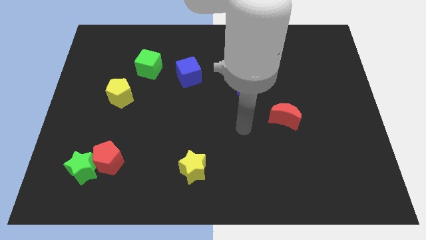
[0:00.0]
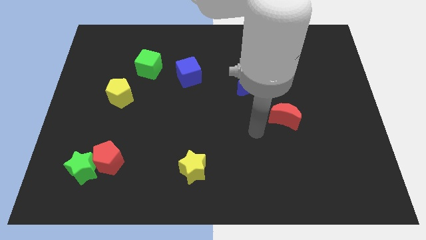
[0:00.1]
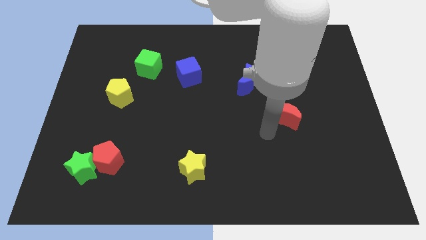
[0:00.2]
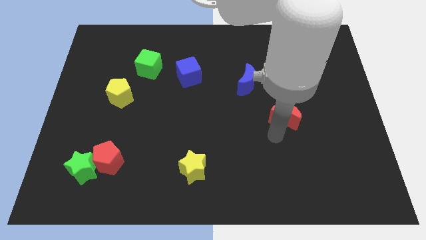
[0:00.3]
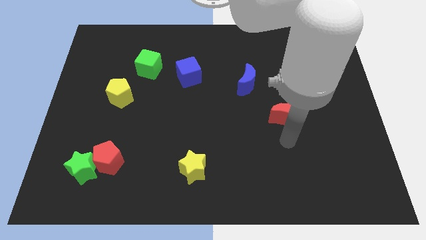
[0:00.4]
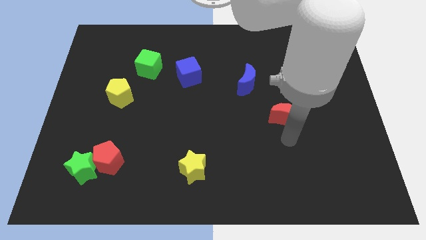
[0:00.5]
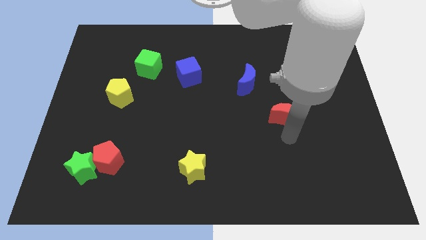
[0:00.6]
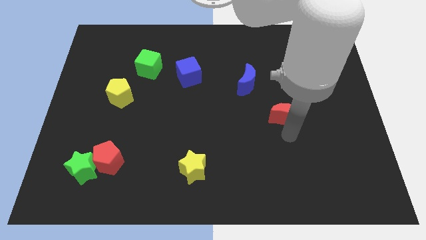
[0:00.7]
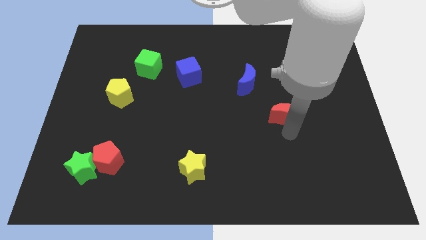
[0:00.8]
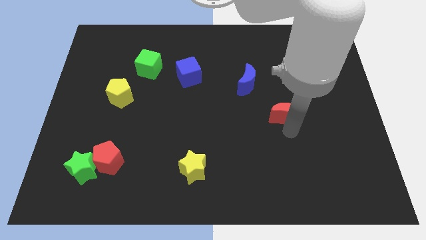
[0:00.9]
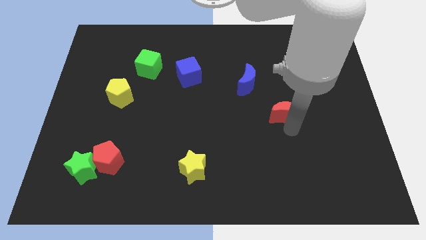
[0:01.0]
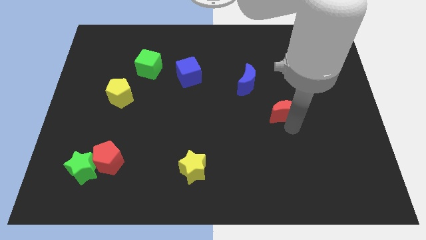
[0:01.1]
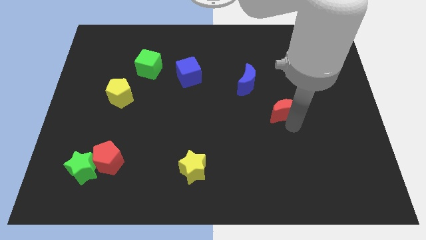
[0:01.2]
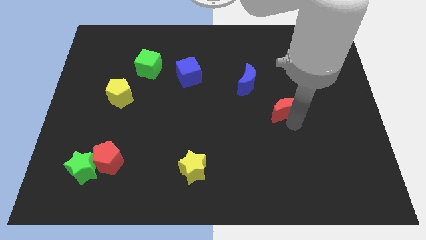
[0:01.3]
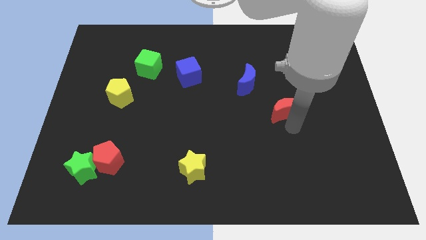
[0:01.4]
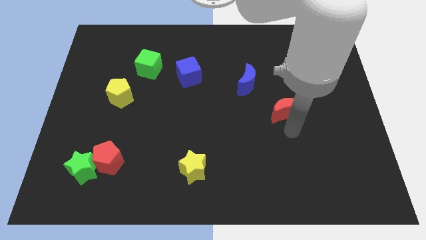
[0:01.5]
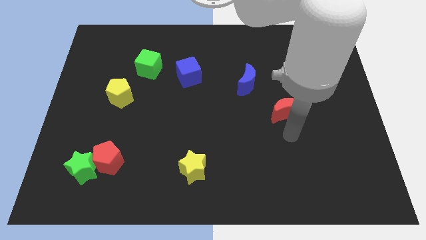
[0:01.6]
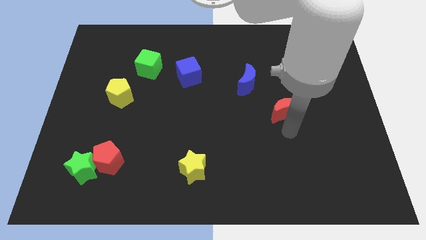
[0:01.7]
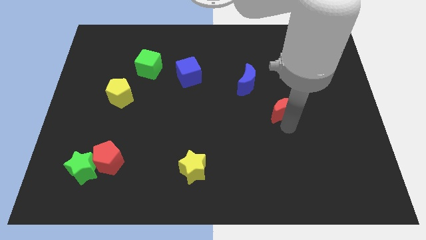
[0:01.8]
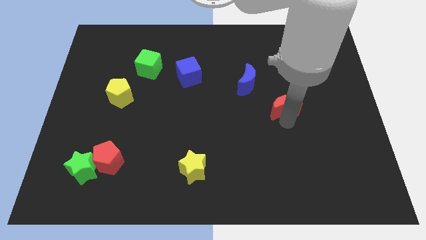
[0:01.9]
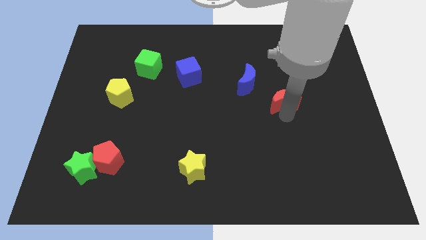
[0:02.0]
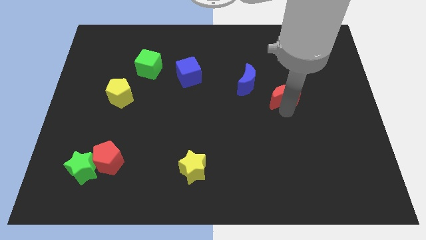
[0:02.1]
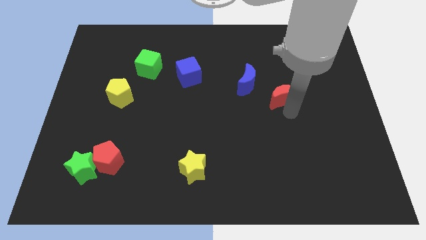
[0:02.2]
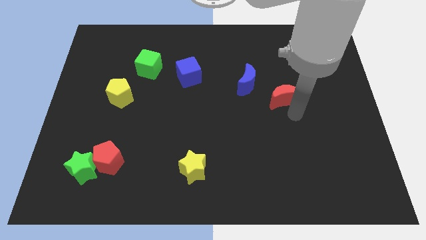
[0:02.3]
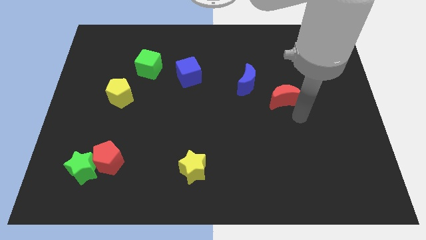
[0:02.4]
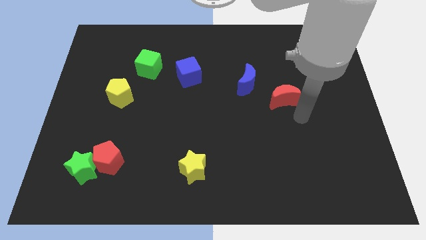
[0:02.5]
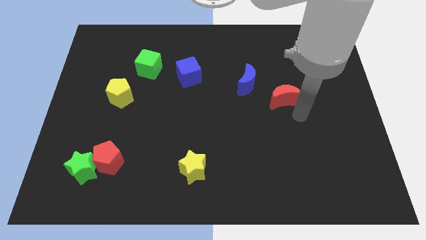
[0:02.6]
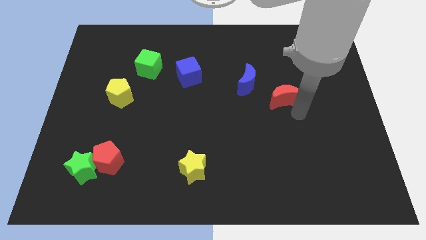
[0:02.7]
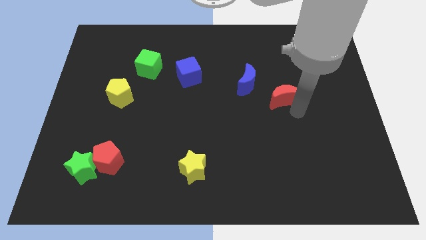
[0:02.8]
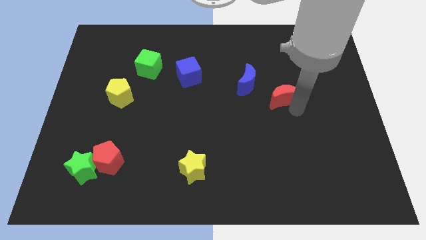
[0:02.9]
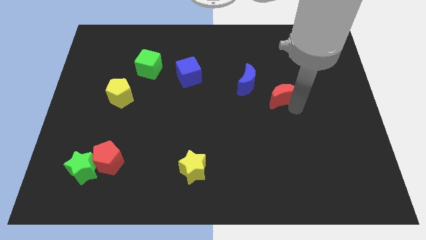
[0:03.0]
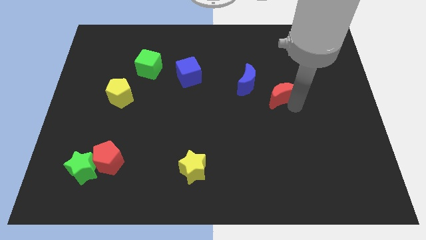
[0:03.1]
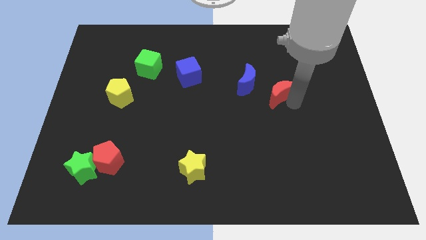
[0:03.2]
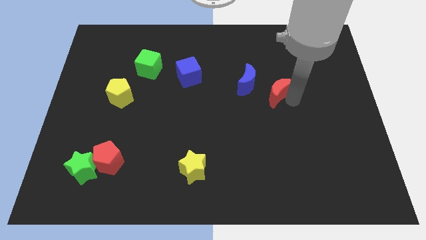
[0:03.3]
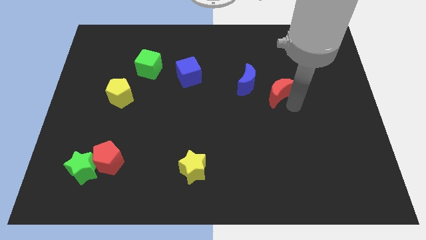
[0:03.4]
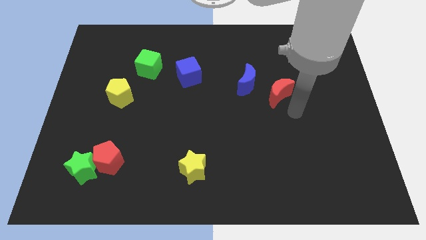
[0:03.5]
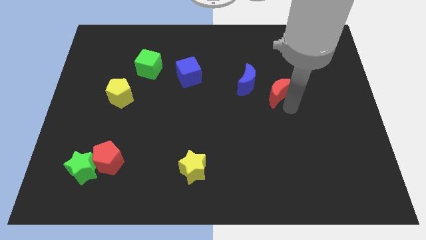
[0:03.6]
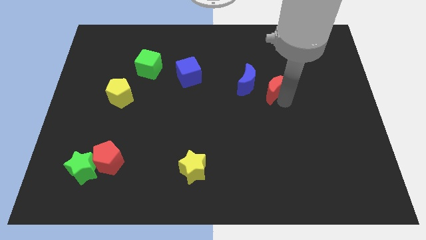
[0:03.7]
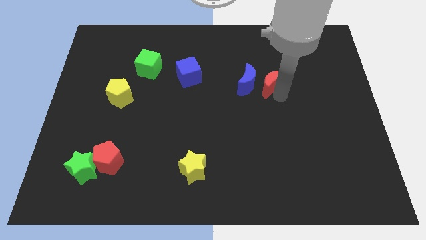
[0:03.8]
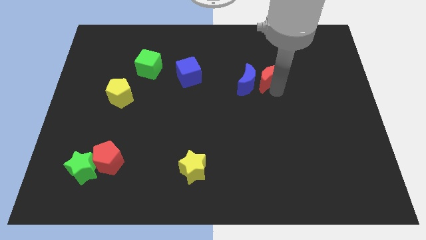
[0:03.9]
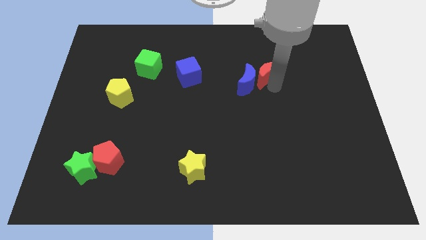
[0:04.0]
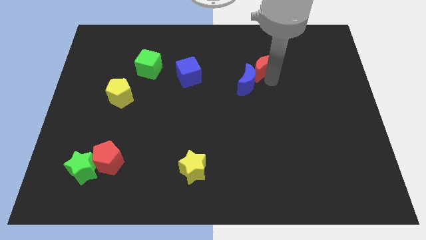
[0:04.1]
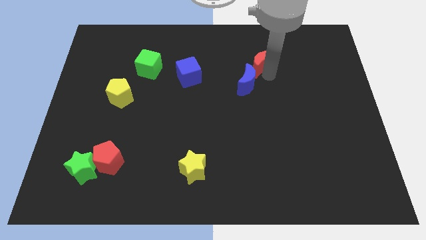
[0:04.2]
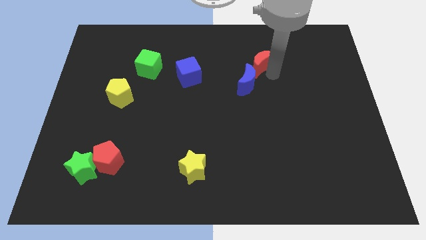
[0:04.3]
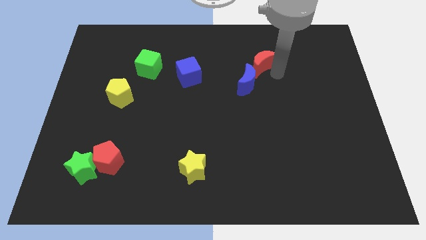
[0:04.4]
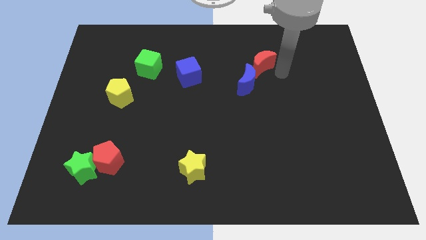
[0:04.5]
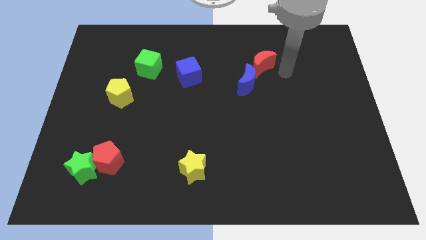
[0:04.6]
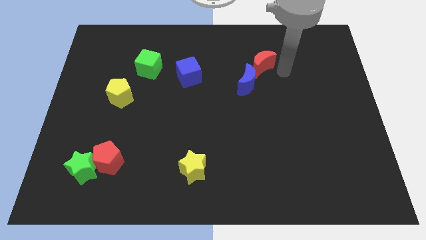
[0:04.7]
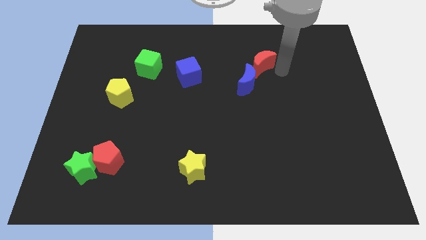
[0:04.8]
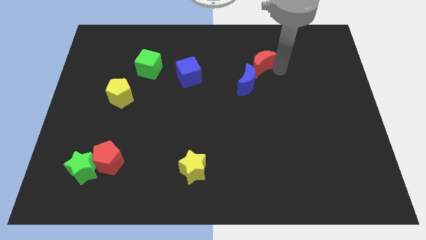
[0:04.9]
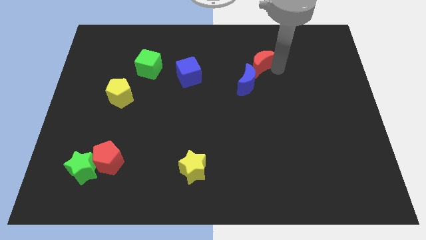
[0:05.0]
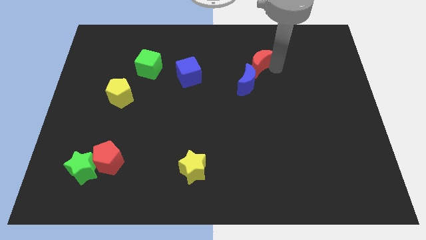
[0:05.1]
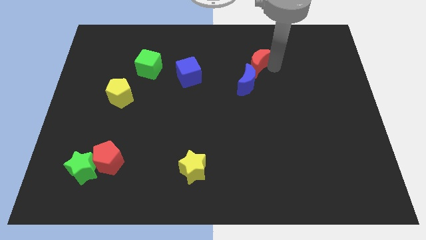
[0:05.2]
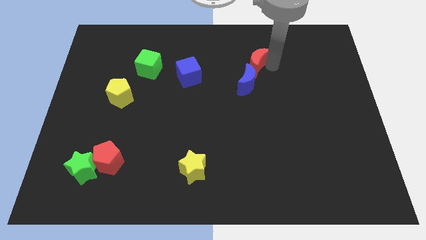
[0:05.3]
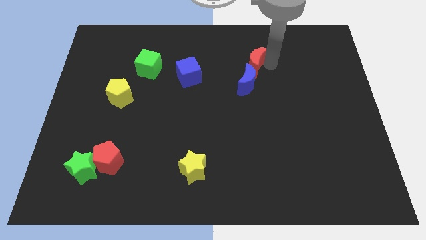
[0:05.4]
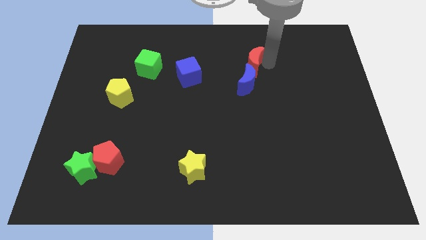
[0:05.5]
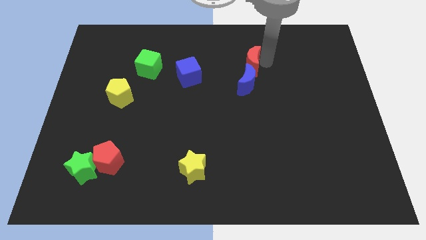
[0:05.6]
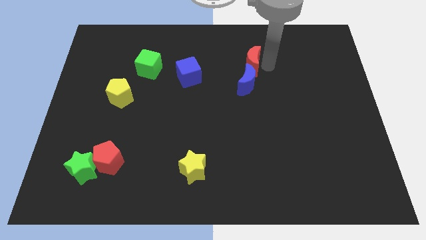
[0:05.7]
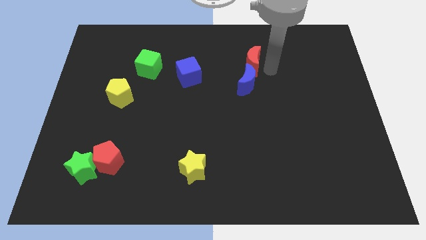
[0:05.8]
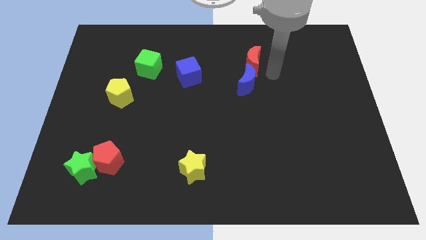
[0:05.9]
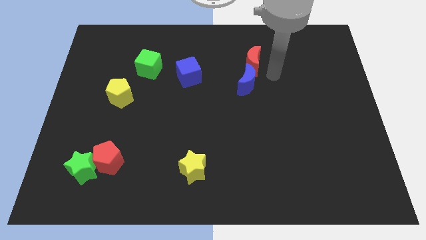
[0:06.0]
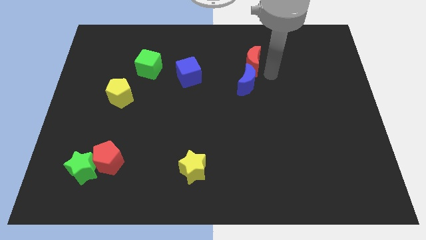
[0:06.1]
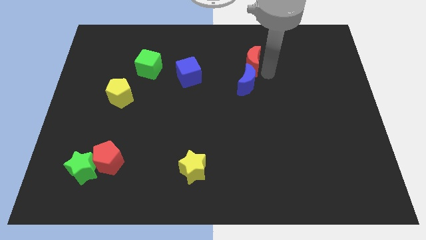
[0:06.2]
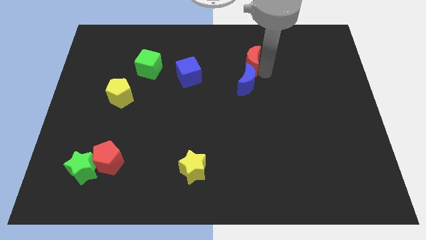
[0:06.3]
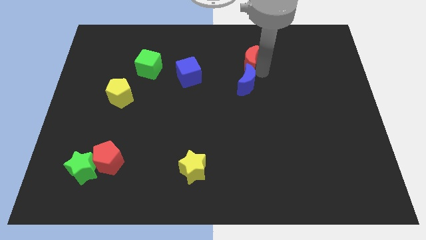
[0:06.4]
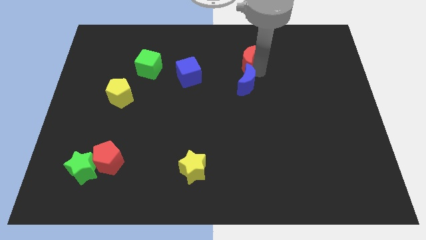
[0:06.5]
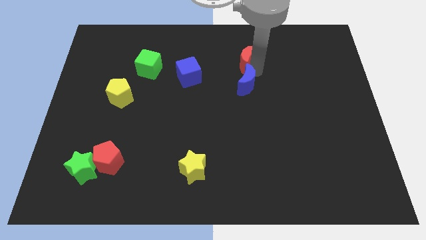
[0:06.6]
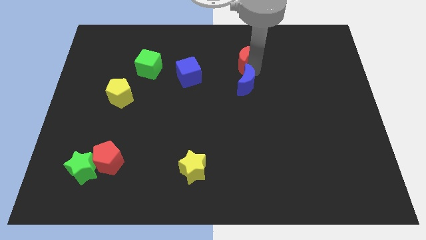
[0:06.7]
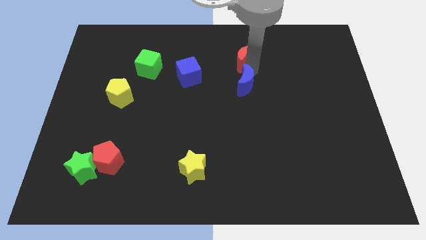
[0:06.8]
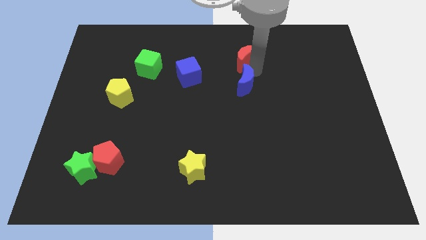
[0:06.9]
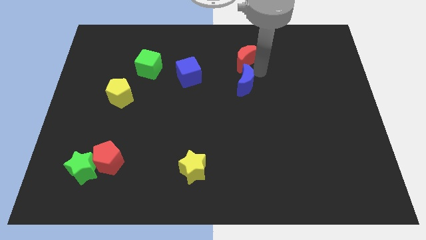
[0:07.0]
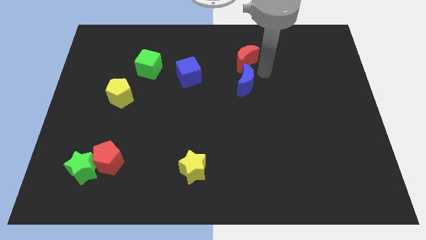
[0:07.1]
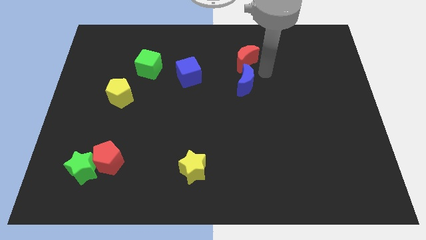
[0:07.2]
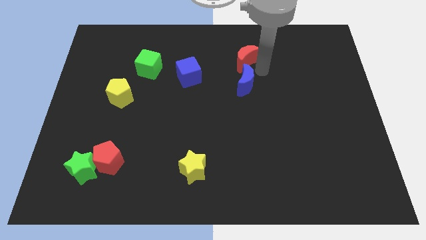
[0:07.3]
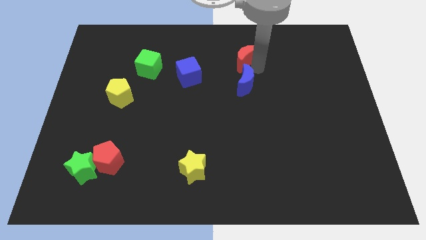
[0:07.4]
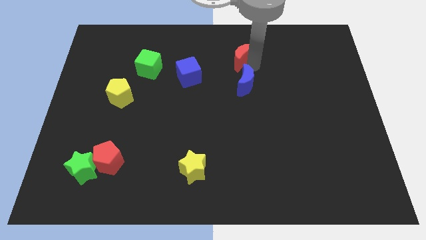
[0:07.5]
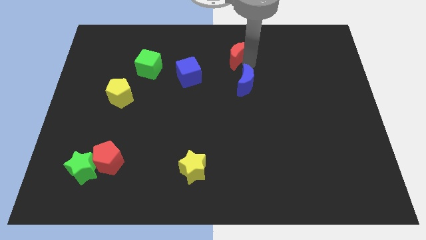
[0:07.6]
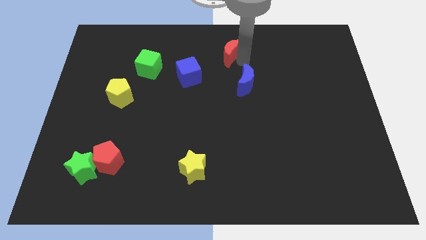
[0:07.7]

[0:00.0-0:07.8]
put the red moon to the top side
